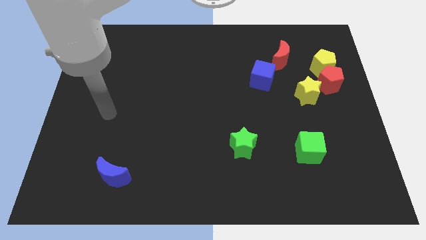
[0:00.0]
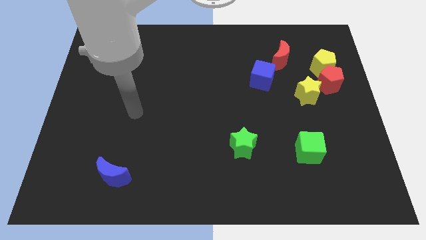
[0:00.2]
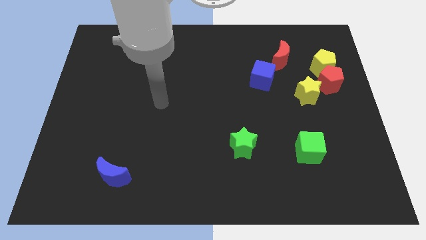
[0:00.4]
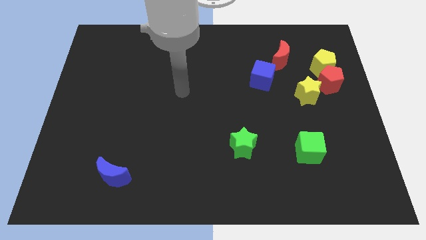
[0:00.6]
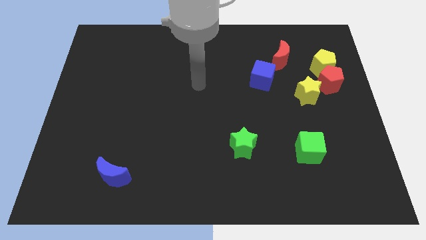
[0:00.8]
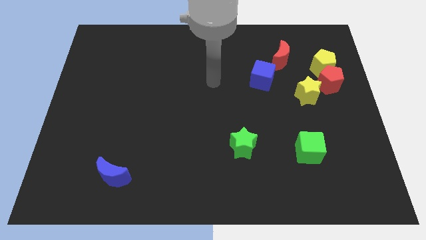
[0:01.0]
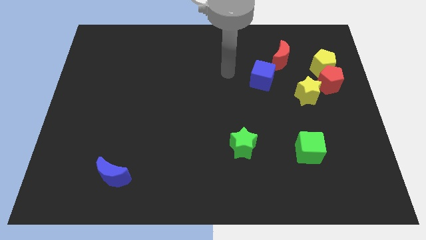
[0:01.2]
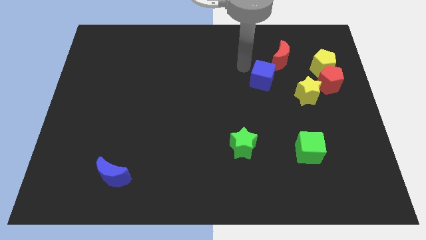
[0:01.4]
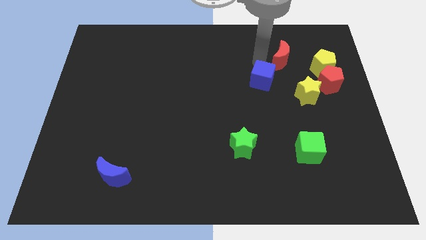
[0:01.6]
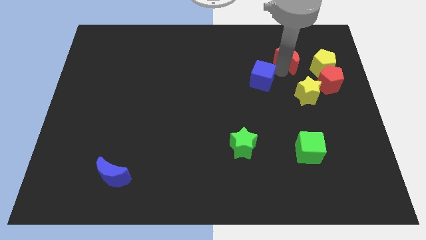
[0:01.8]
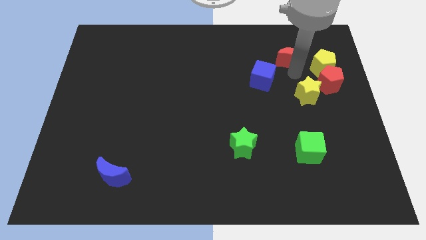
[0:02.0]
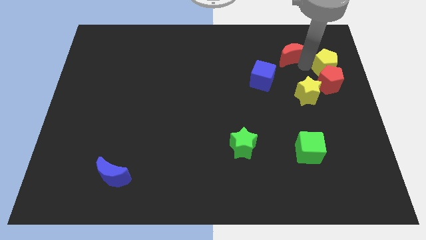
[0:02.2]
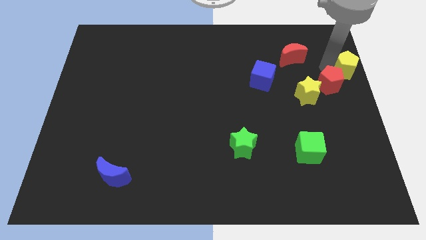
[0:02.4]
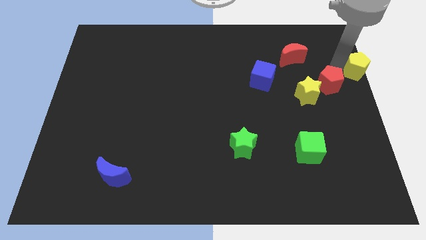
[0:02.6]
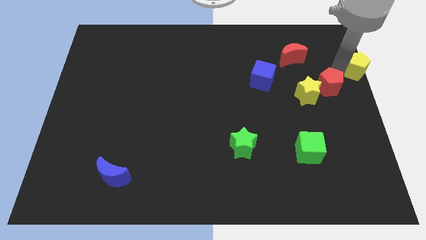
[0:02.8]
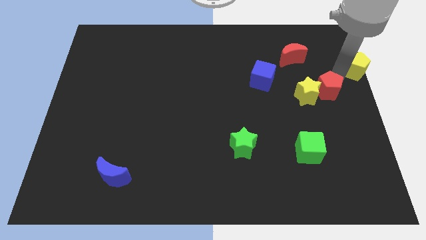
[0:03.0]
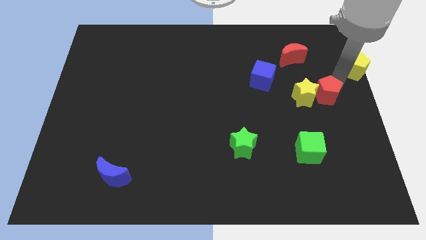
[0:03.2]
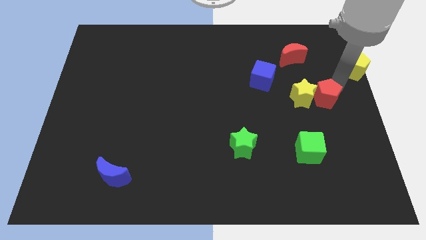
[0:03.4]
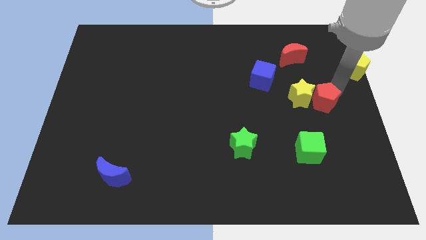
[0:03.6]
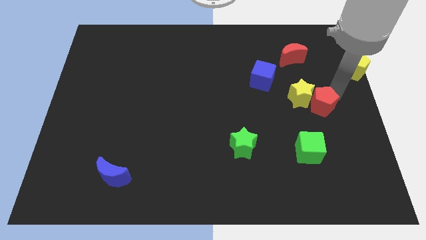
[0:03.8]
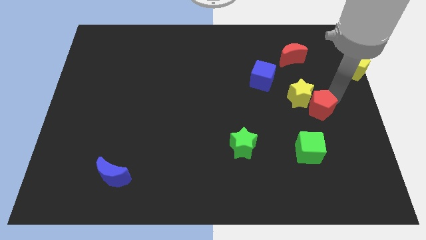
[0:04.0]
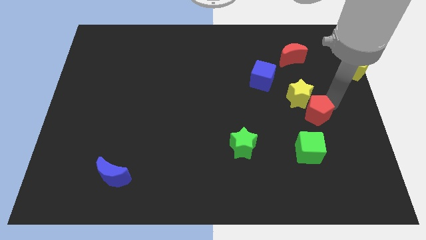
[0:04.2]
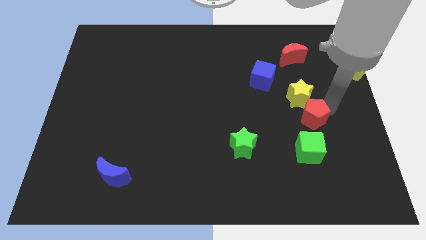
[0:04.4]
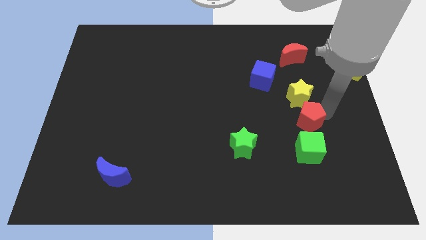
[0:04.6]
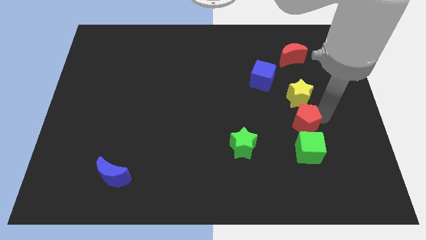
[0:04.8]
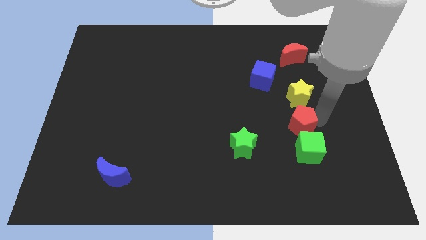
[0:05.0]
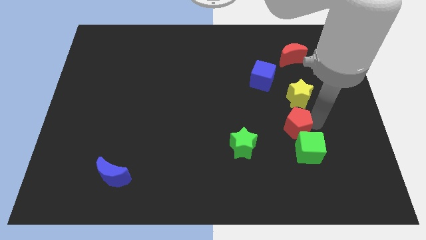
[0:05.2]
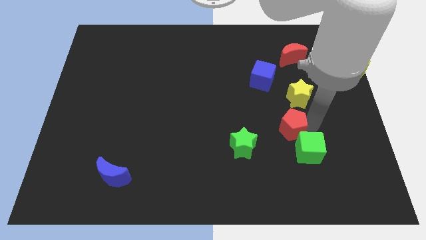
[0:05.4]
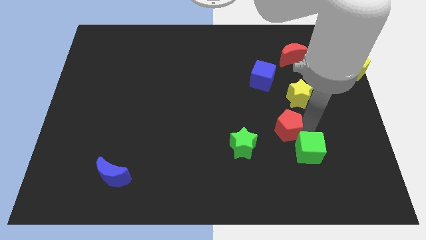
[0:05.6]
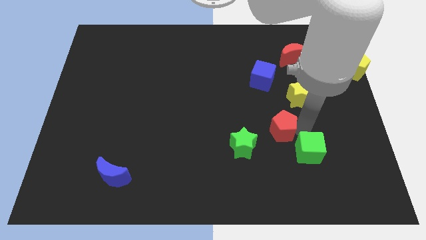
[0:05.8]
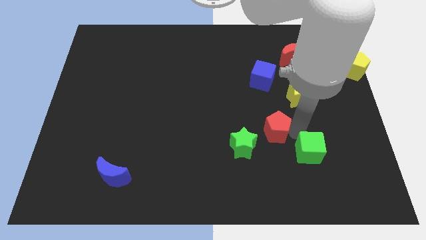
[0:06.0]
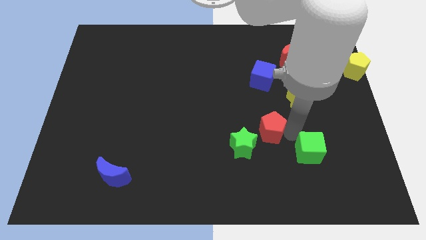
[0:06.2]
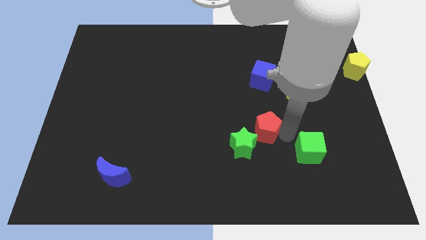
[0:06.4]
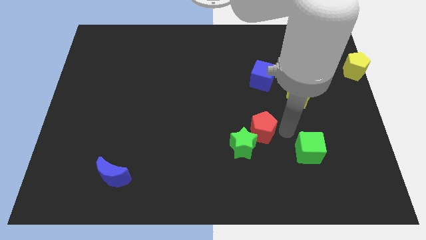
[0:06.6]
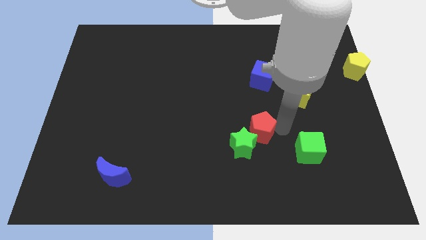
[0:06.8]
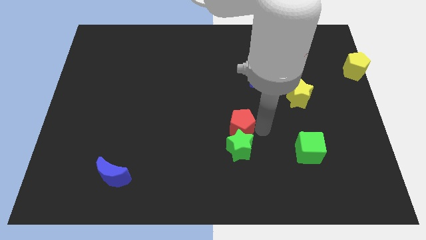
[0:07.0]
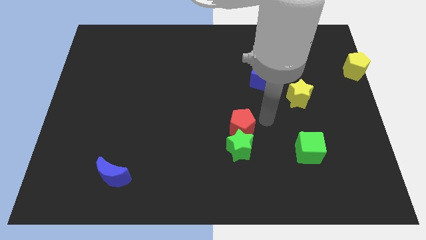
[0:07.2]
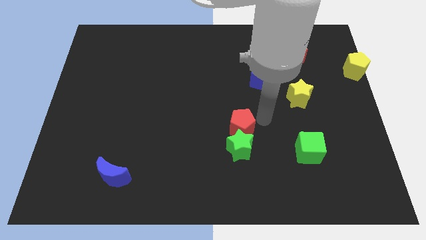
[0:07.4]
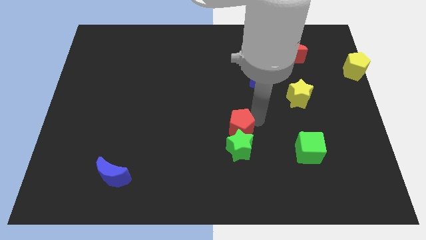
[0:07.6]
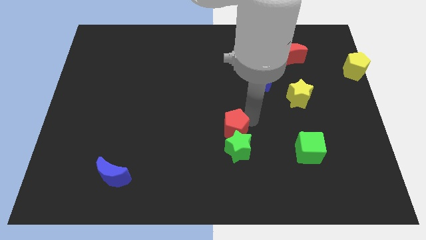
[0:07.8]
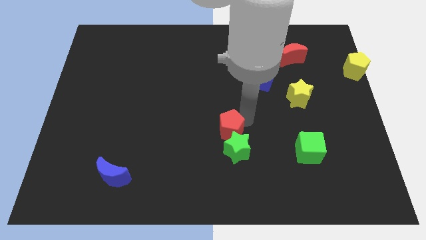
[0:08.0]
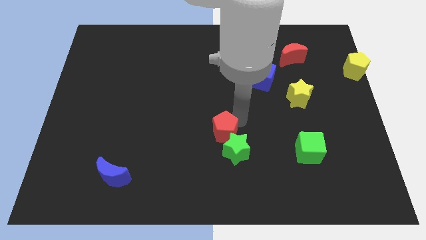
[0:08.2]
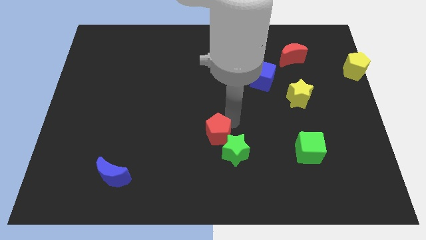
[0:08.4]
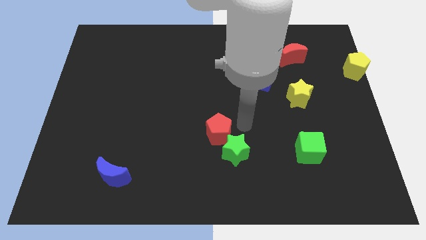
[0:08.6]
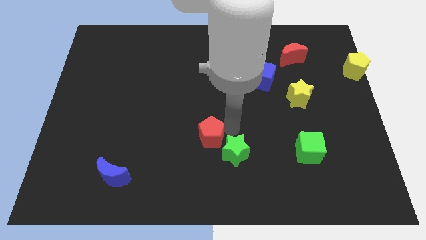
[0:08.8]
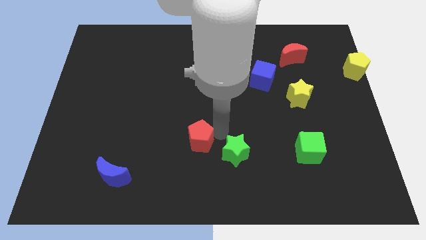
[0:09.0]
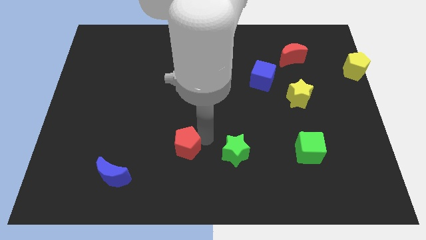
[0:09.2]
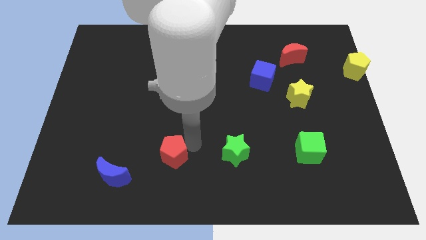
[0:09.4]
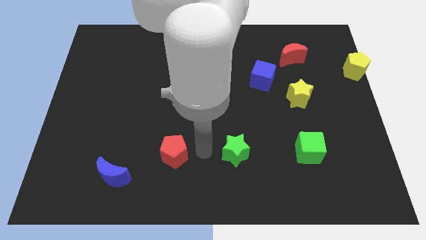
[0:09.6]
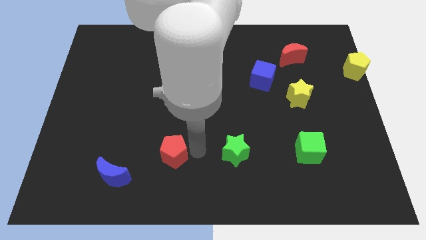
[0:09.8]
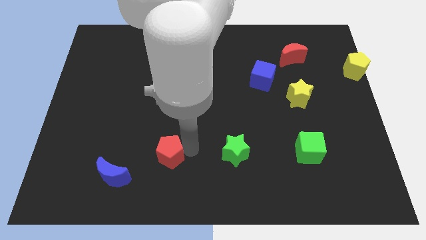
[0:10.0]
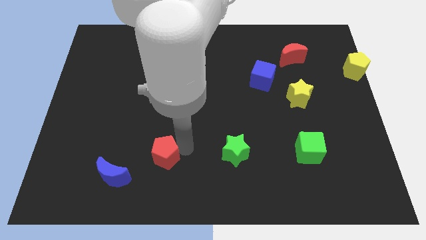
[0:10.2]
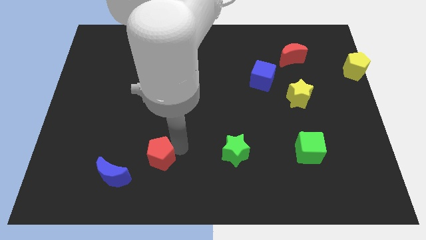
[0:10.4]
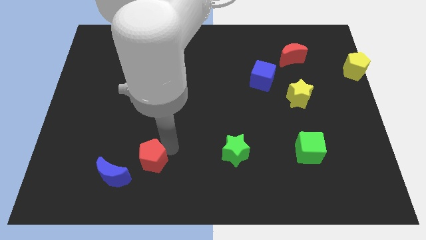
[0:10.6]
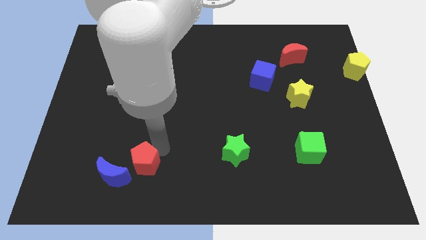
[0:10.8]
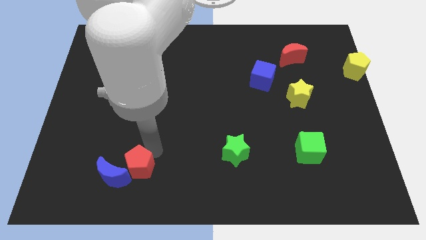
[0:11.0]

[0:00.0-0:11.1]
slide the red pentagon close to the blue moon

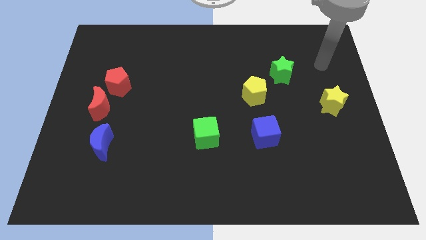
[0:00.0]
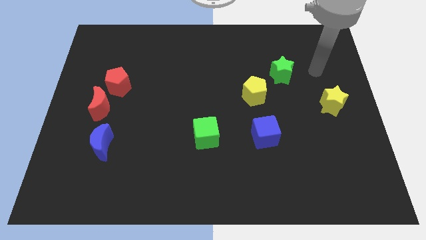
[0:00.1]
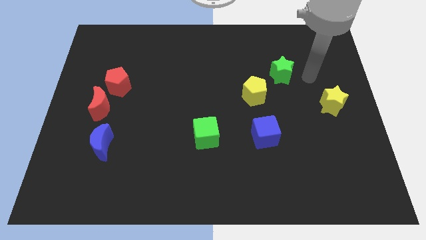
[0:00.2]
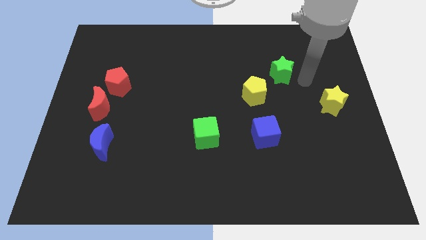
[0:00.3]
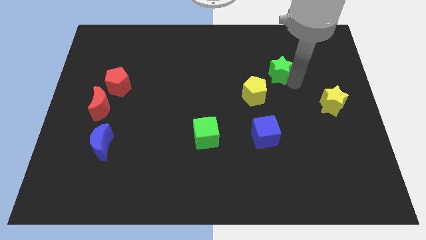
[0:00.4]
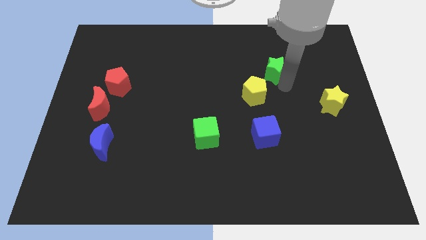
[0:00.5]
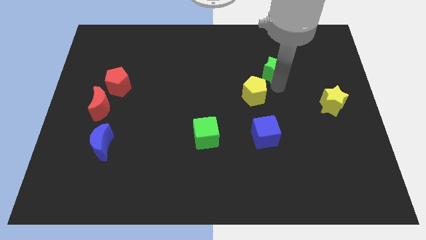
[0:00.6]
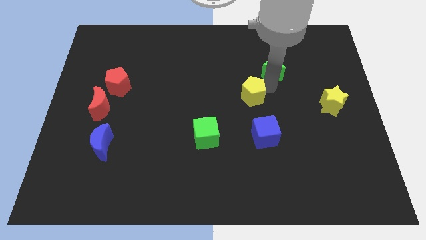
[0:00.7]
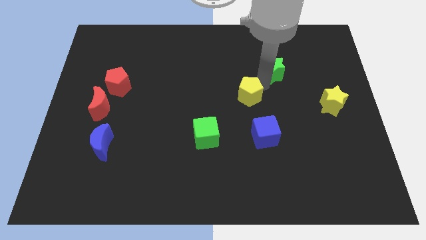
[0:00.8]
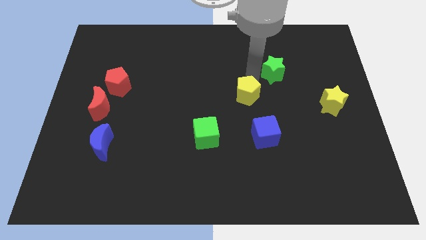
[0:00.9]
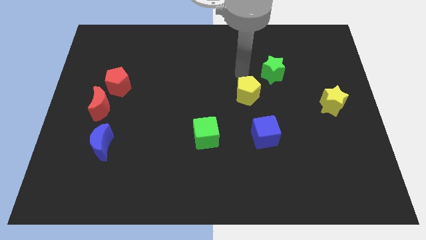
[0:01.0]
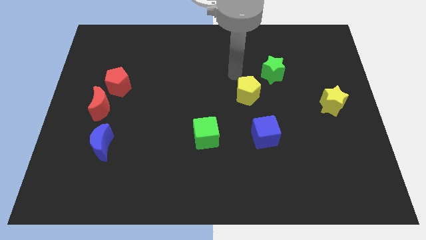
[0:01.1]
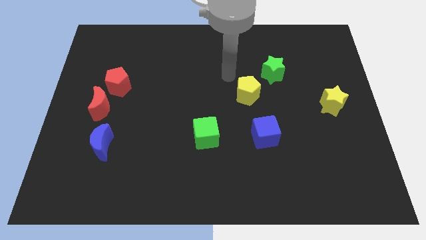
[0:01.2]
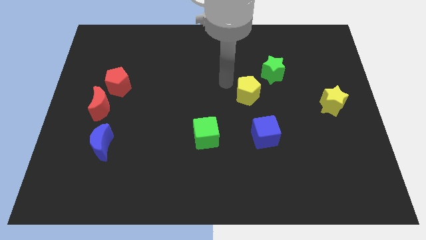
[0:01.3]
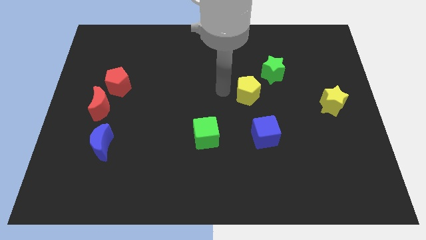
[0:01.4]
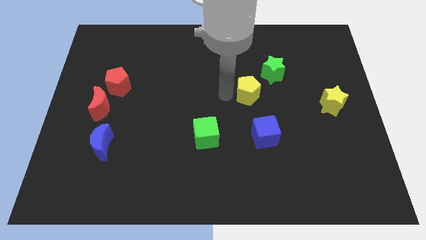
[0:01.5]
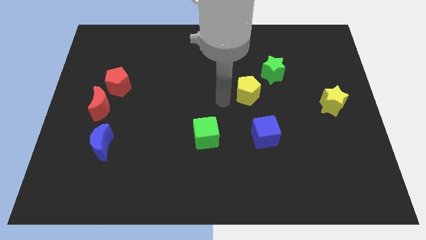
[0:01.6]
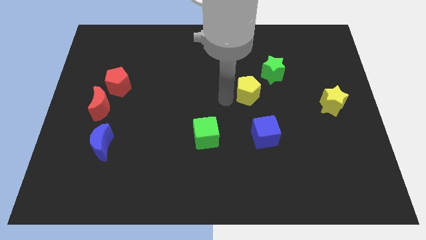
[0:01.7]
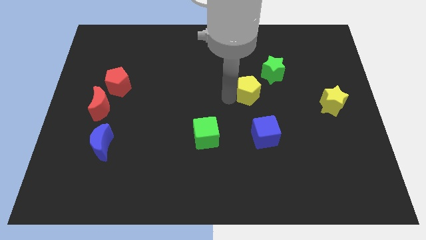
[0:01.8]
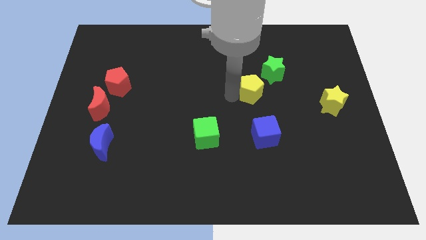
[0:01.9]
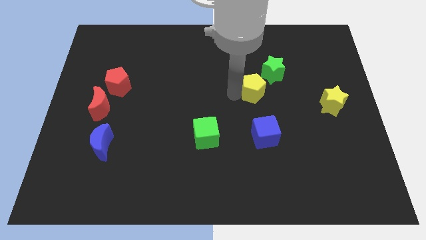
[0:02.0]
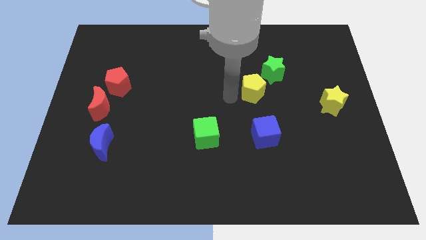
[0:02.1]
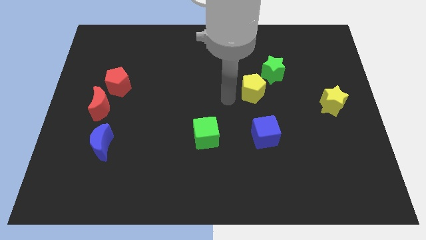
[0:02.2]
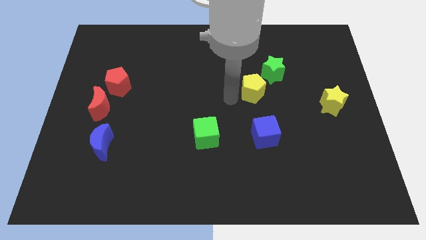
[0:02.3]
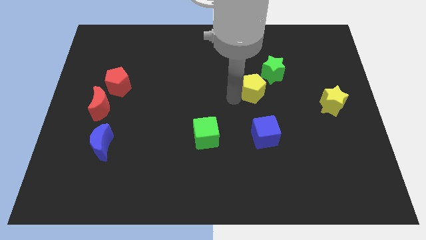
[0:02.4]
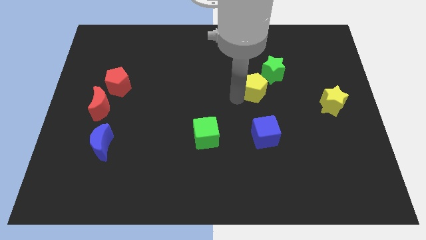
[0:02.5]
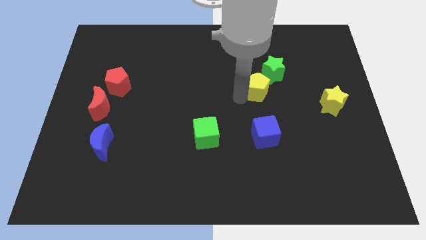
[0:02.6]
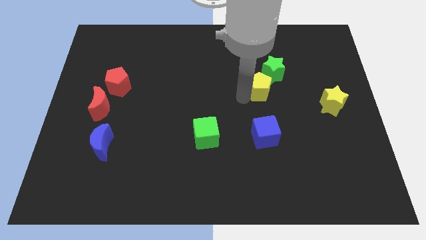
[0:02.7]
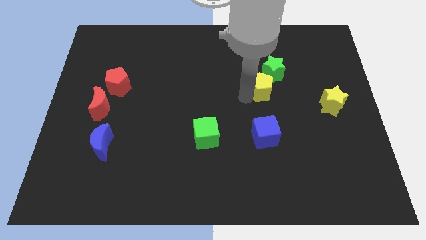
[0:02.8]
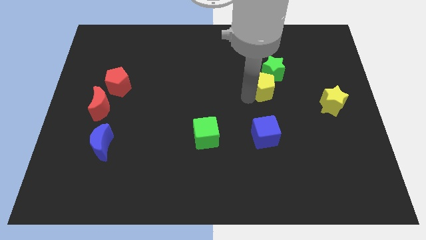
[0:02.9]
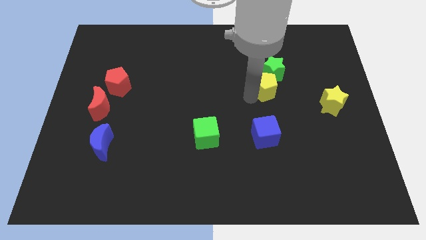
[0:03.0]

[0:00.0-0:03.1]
slide the yellow pentagon close to the green star
